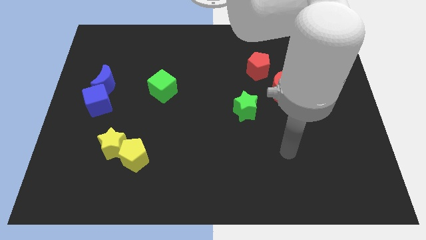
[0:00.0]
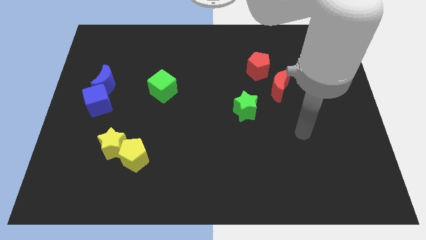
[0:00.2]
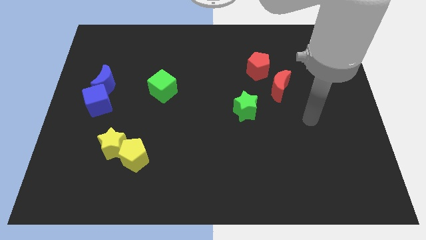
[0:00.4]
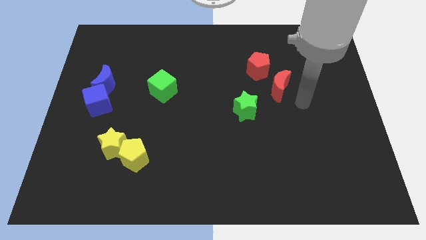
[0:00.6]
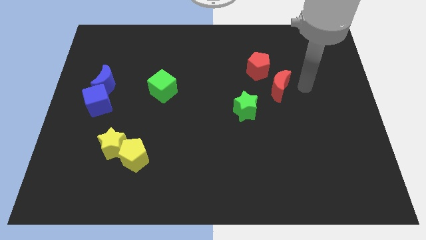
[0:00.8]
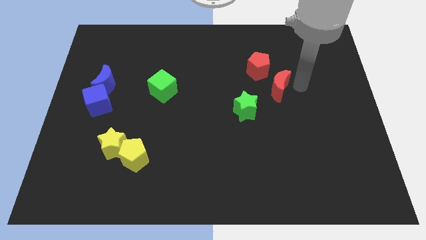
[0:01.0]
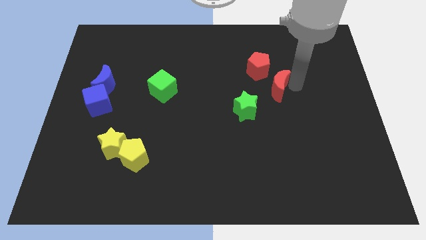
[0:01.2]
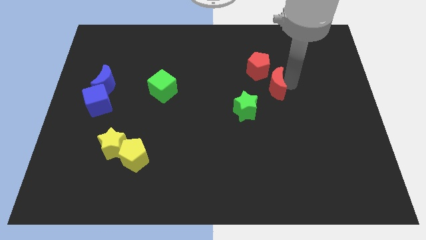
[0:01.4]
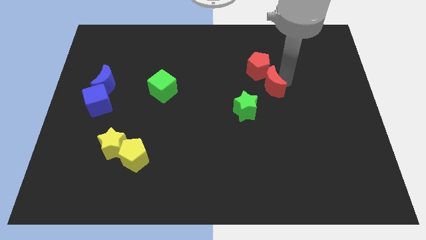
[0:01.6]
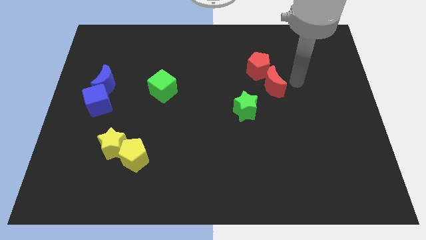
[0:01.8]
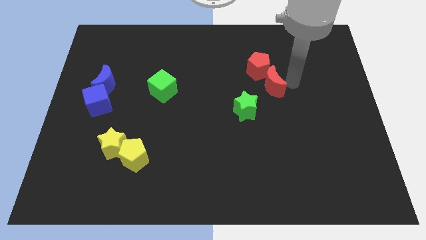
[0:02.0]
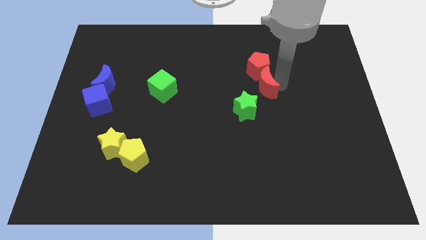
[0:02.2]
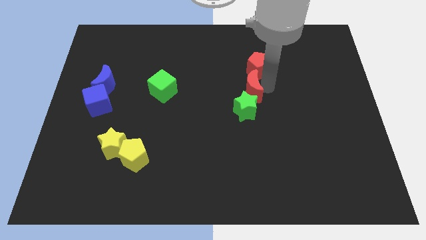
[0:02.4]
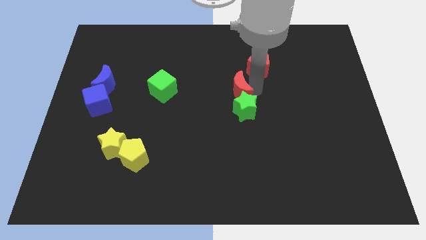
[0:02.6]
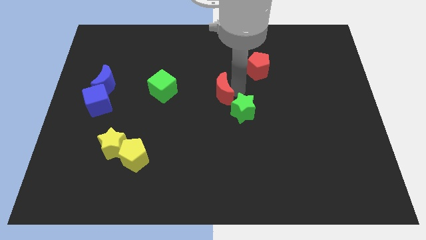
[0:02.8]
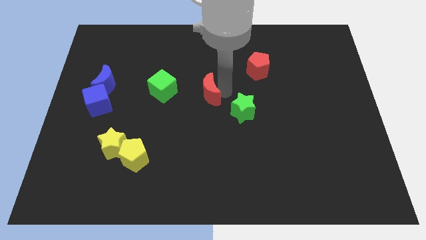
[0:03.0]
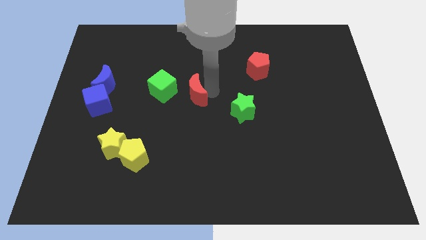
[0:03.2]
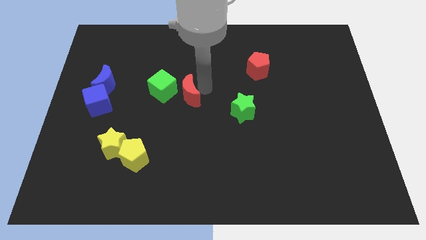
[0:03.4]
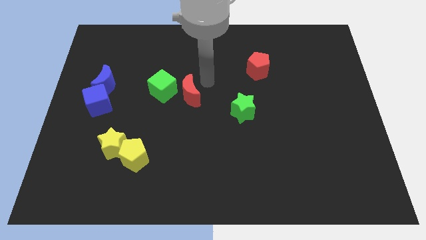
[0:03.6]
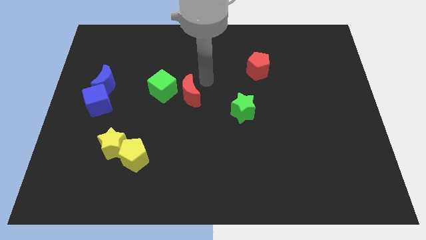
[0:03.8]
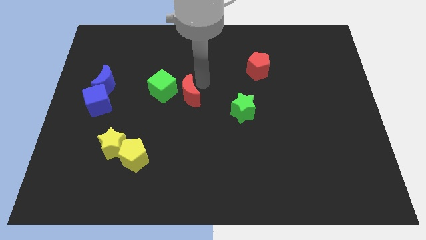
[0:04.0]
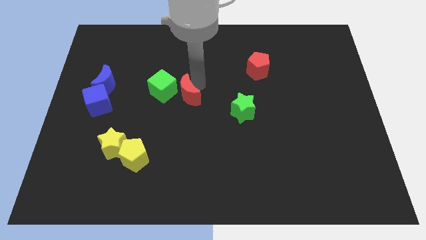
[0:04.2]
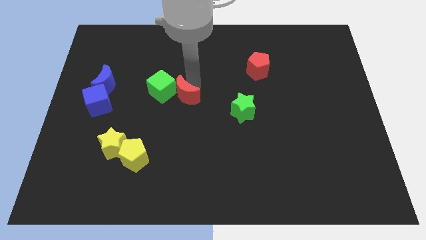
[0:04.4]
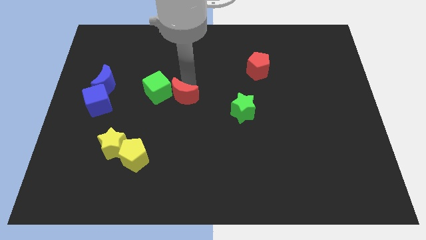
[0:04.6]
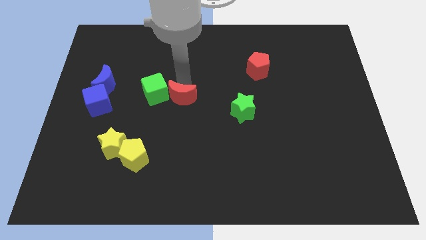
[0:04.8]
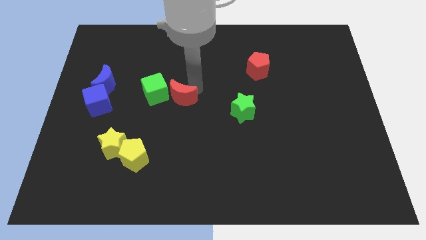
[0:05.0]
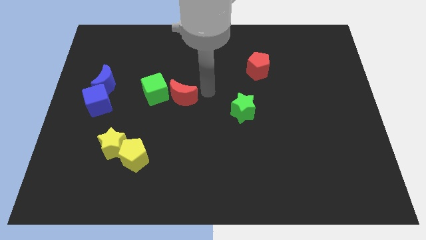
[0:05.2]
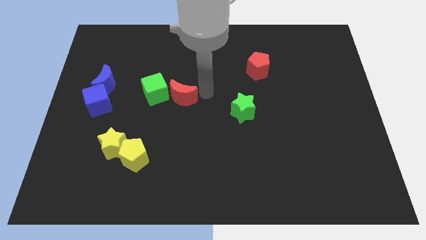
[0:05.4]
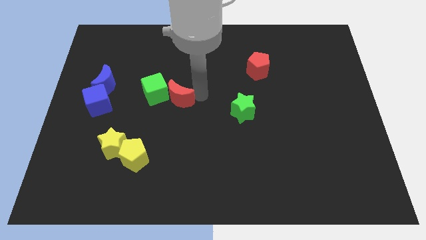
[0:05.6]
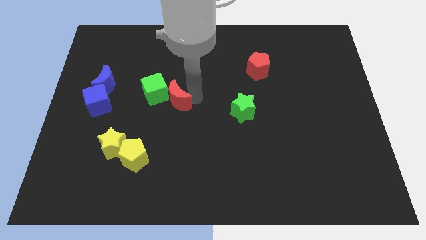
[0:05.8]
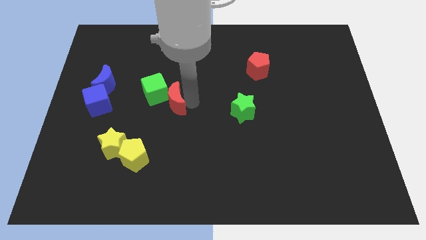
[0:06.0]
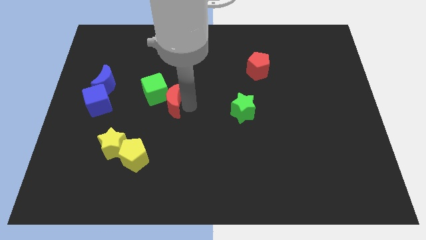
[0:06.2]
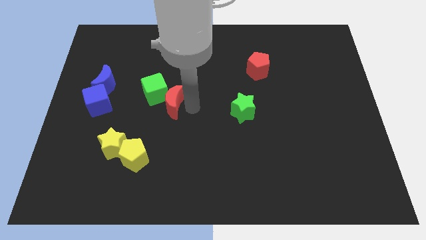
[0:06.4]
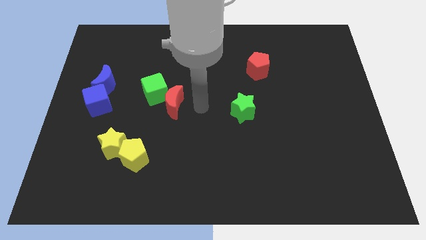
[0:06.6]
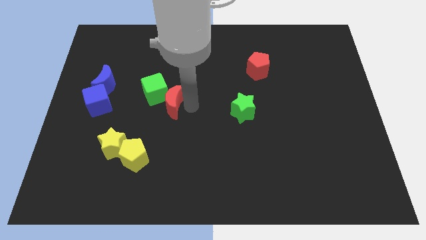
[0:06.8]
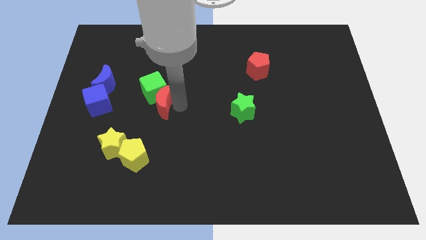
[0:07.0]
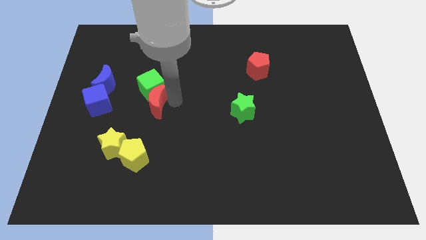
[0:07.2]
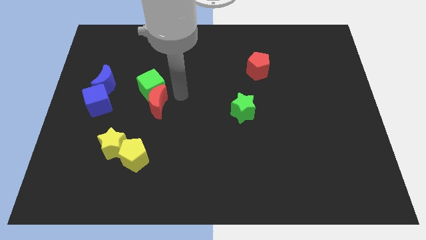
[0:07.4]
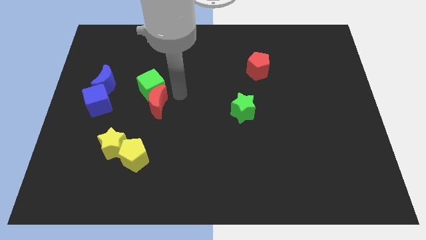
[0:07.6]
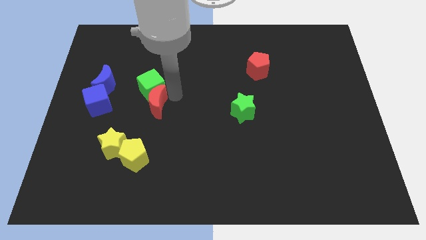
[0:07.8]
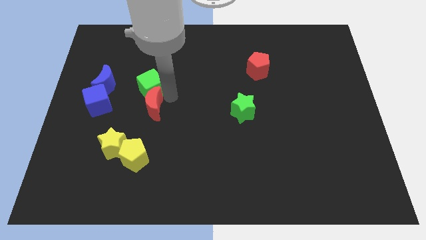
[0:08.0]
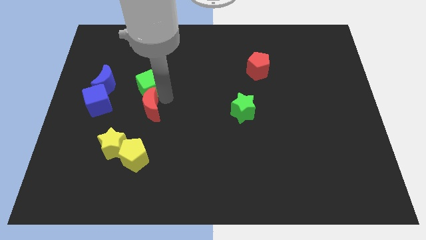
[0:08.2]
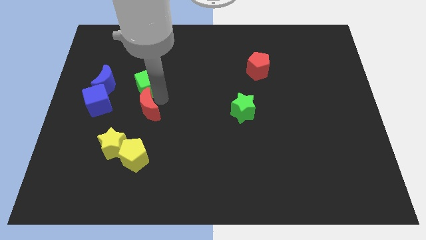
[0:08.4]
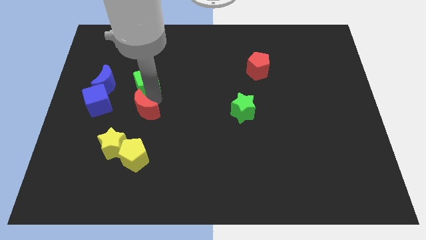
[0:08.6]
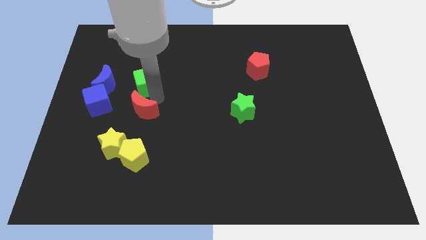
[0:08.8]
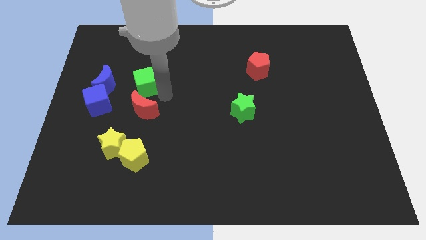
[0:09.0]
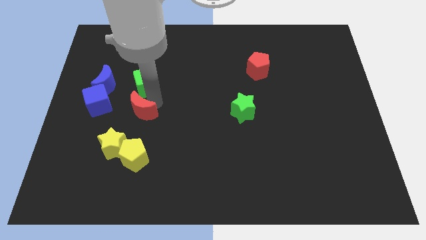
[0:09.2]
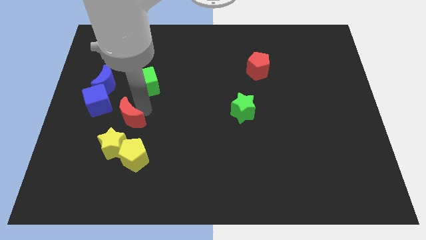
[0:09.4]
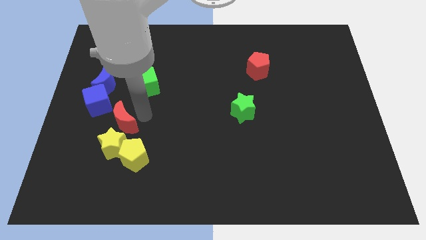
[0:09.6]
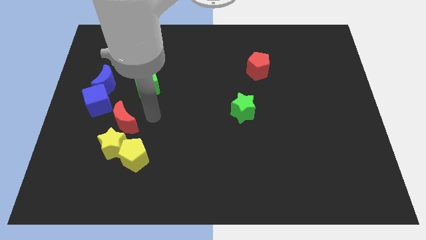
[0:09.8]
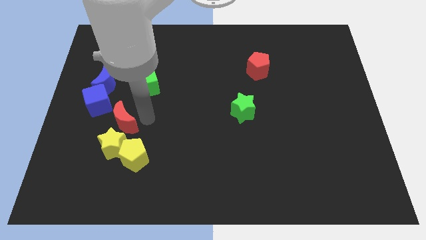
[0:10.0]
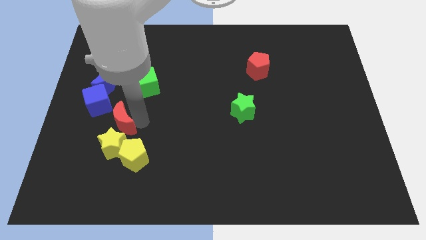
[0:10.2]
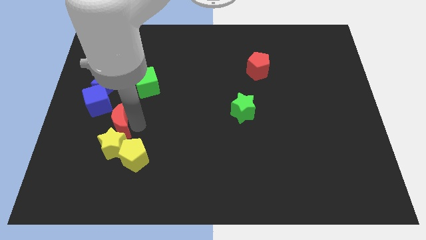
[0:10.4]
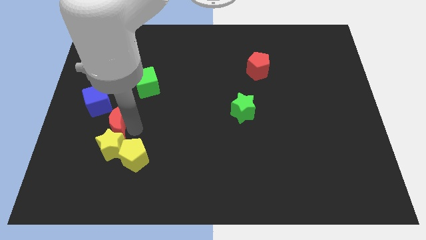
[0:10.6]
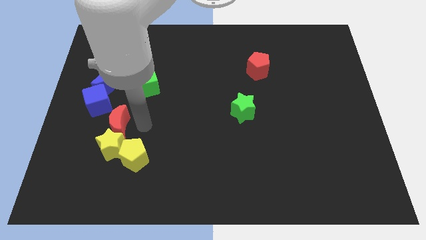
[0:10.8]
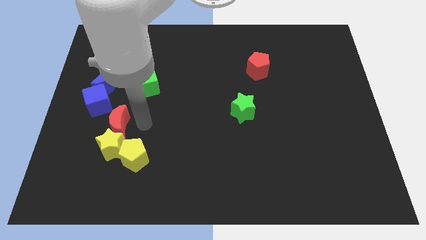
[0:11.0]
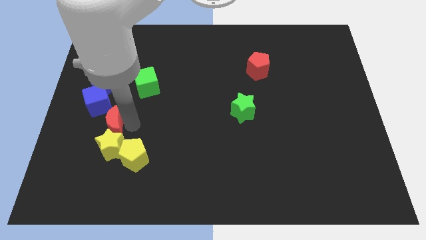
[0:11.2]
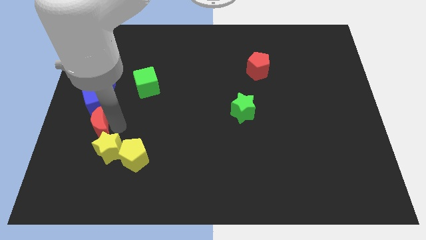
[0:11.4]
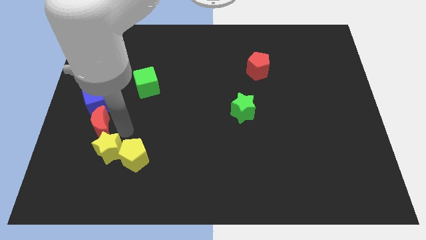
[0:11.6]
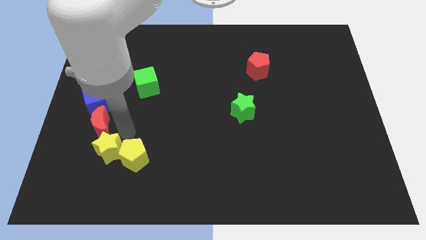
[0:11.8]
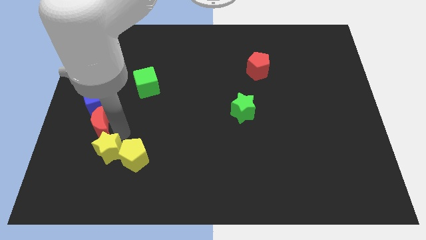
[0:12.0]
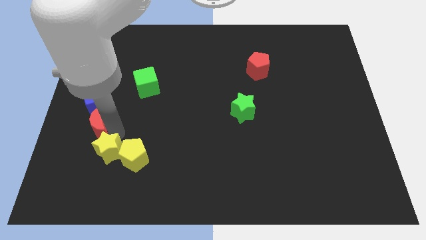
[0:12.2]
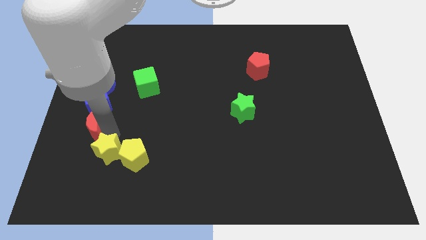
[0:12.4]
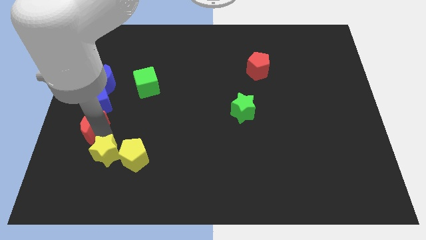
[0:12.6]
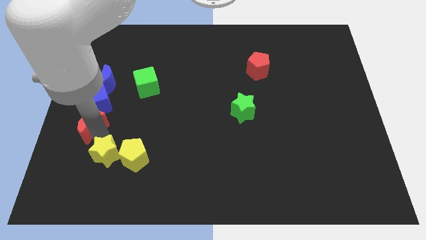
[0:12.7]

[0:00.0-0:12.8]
move the red moon to the left side of the board
